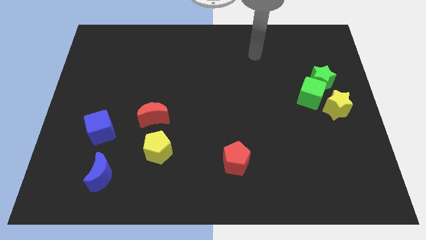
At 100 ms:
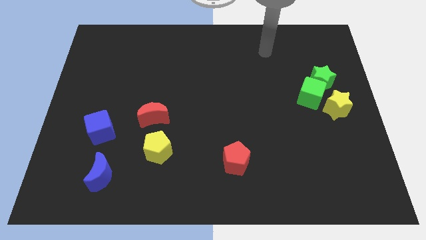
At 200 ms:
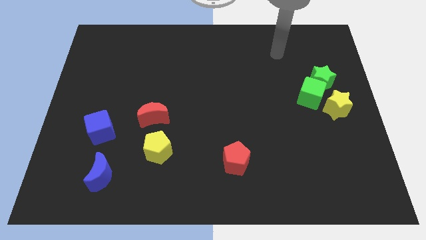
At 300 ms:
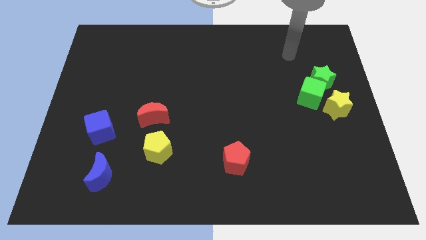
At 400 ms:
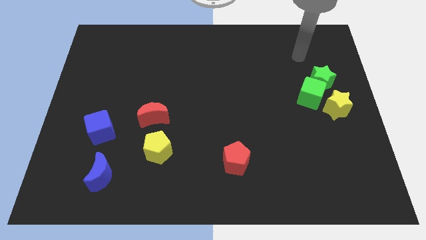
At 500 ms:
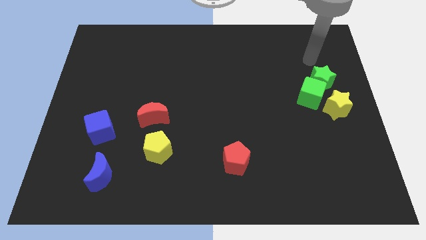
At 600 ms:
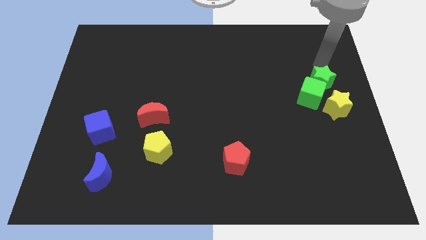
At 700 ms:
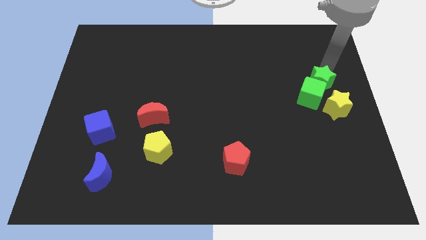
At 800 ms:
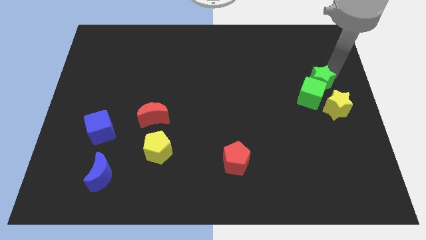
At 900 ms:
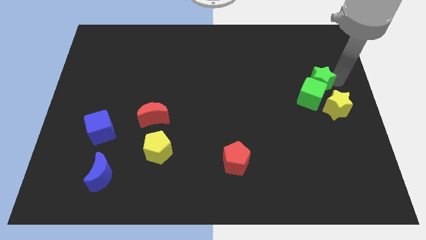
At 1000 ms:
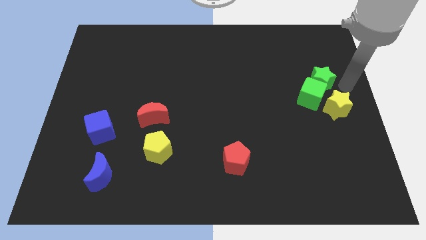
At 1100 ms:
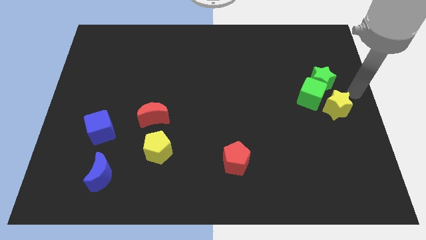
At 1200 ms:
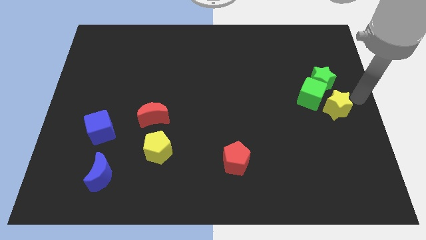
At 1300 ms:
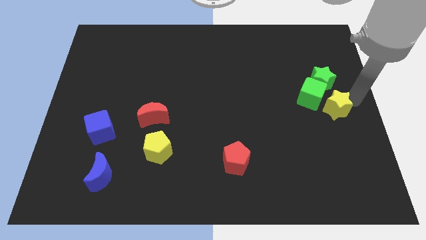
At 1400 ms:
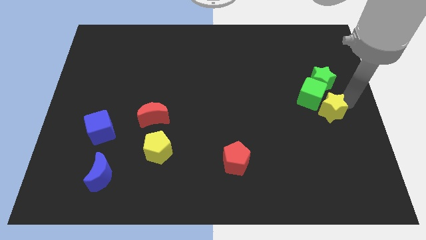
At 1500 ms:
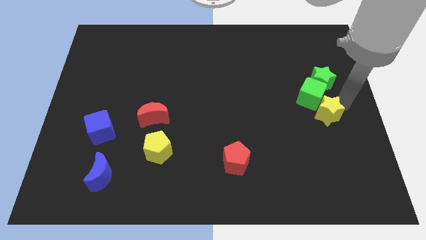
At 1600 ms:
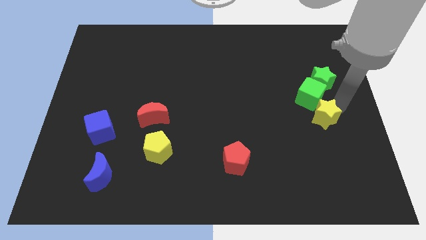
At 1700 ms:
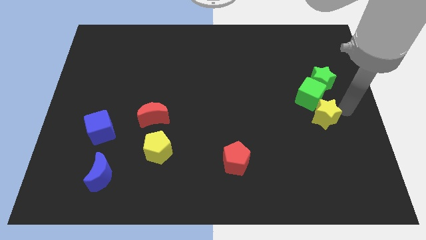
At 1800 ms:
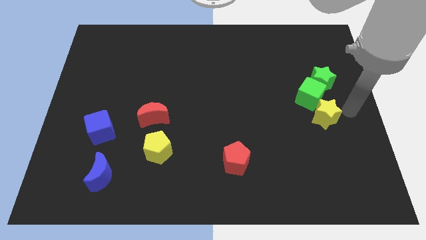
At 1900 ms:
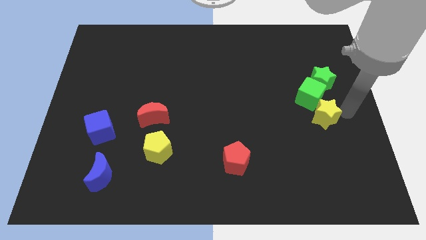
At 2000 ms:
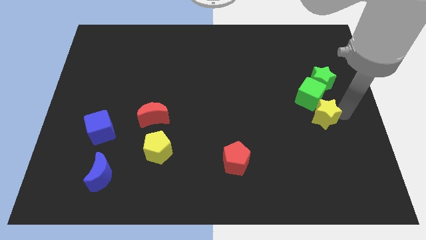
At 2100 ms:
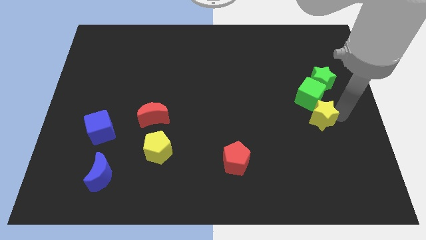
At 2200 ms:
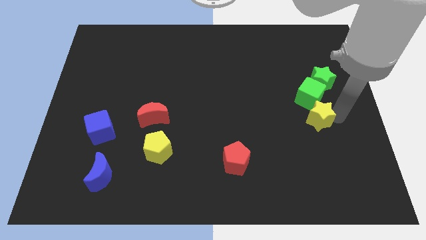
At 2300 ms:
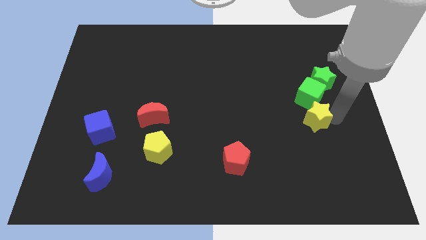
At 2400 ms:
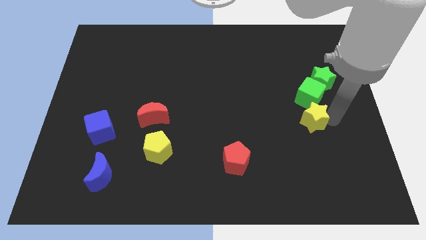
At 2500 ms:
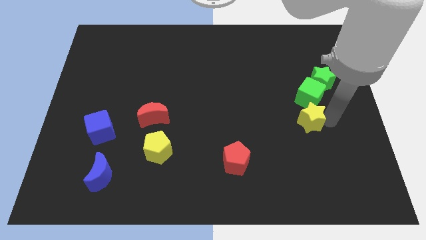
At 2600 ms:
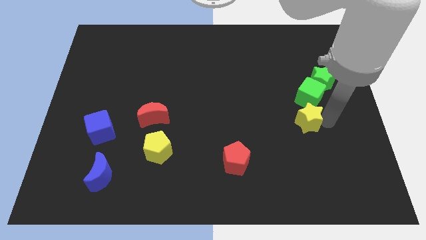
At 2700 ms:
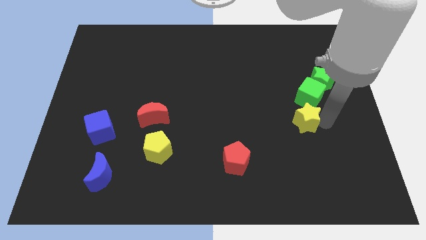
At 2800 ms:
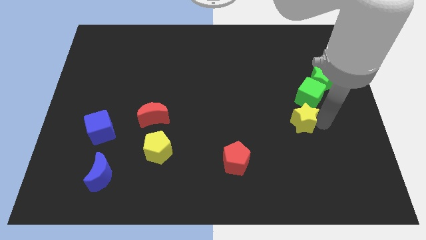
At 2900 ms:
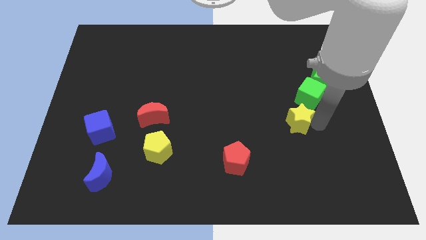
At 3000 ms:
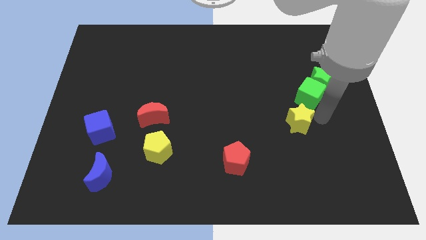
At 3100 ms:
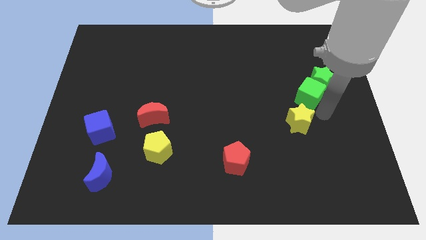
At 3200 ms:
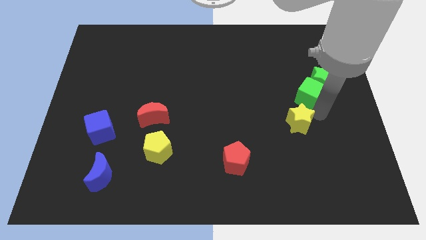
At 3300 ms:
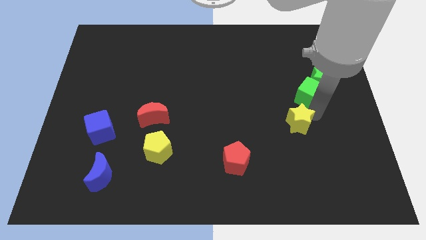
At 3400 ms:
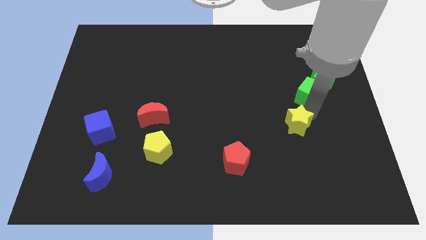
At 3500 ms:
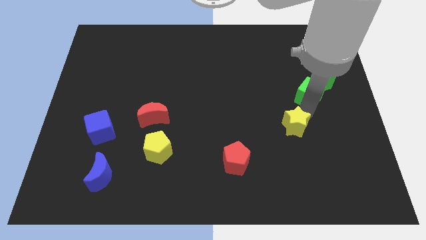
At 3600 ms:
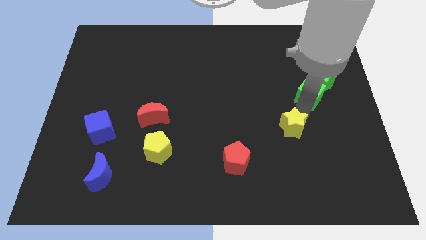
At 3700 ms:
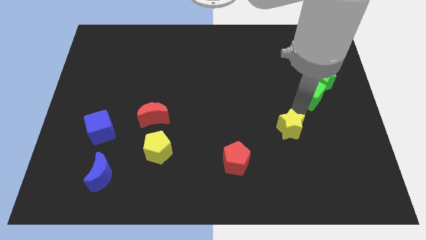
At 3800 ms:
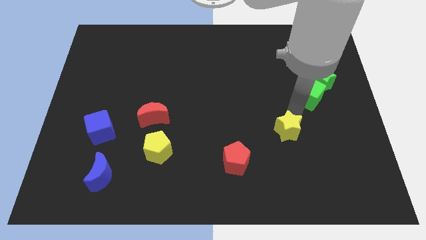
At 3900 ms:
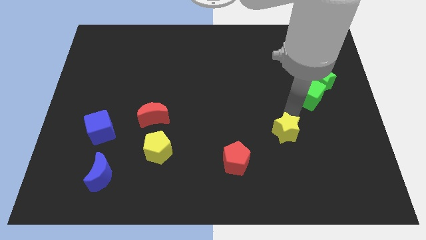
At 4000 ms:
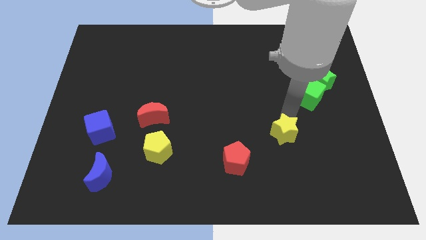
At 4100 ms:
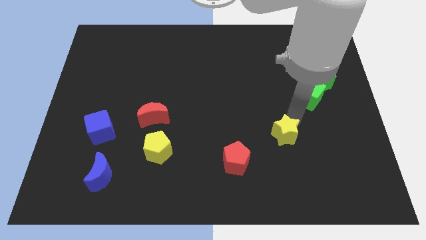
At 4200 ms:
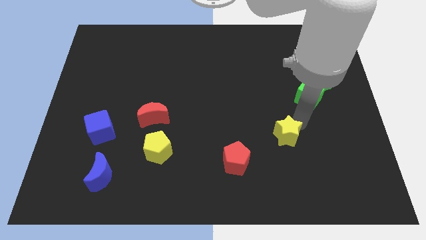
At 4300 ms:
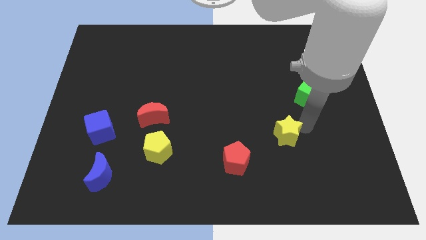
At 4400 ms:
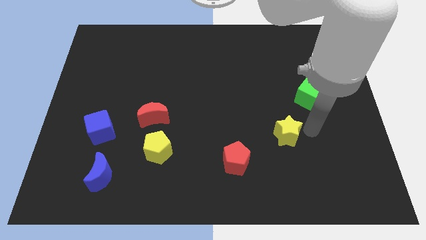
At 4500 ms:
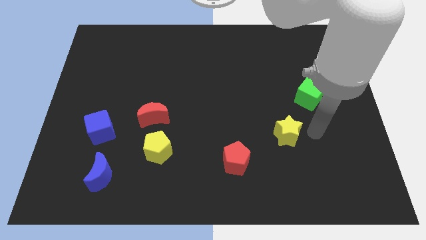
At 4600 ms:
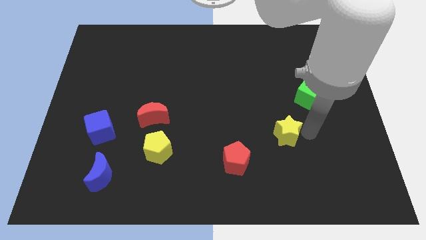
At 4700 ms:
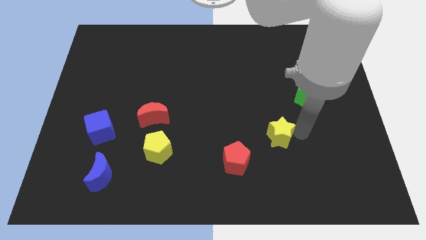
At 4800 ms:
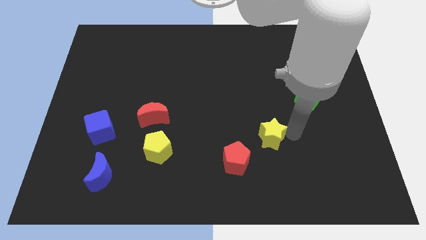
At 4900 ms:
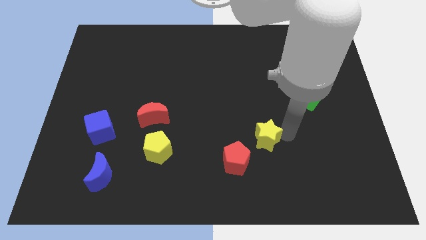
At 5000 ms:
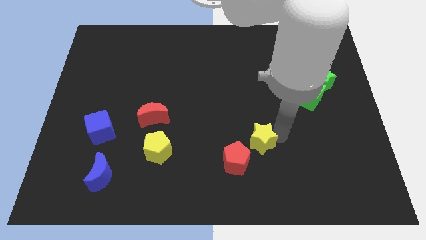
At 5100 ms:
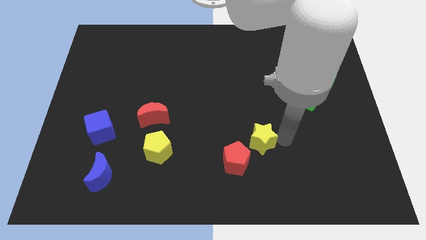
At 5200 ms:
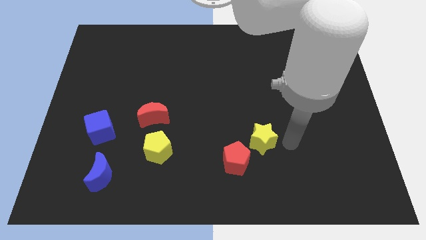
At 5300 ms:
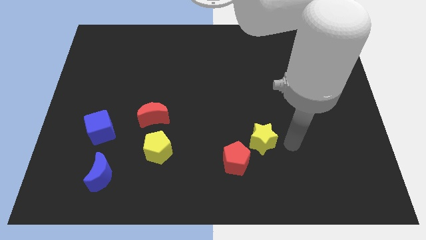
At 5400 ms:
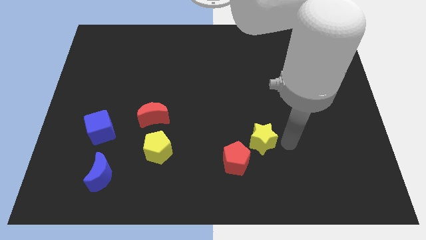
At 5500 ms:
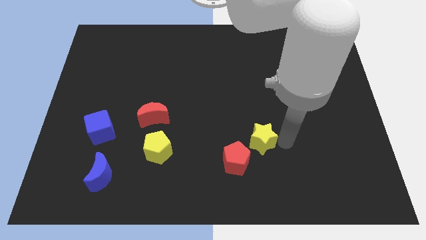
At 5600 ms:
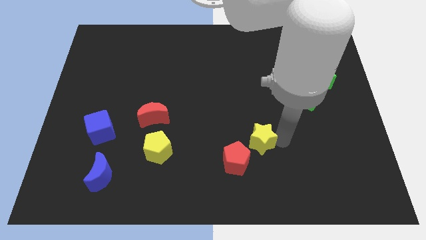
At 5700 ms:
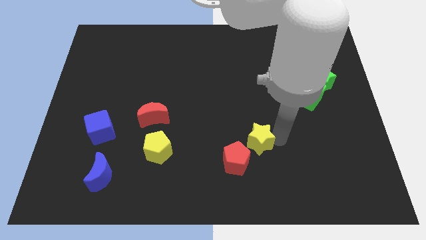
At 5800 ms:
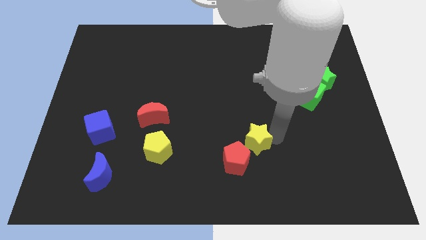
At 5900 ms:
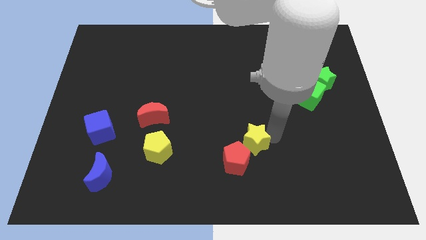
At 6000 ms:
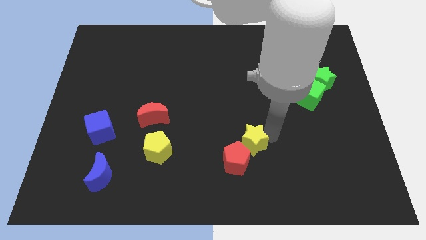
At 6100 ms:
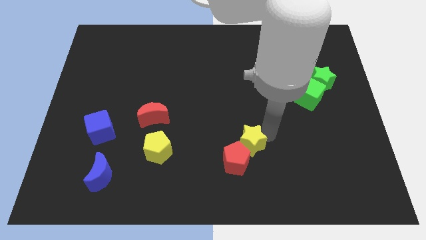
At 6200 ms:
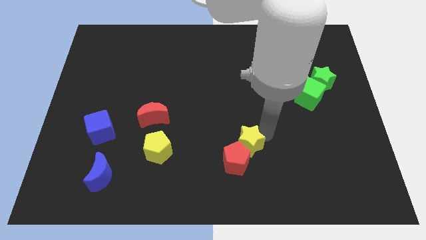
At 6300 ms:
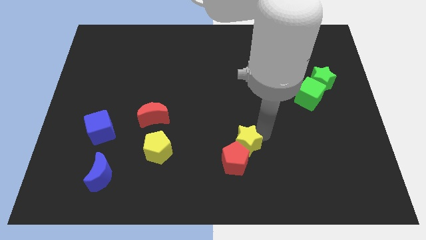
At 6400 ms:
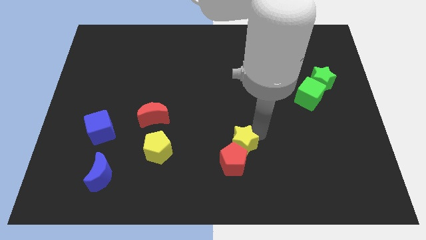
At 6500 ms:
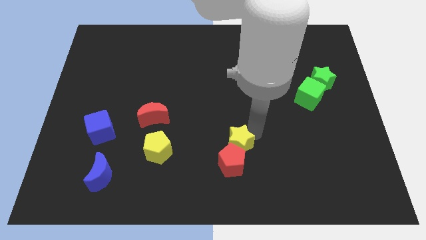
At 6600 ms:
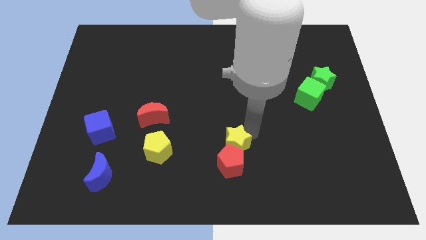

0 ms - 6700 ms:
push the yellow star to the top left of the red pentagon

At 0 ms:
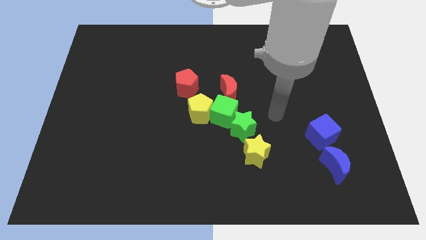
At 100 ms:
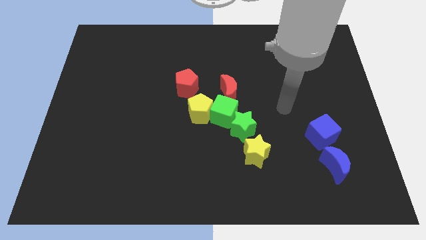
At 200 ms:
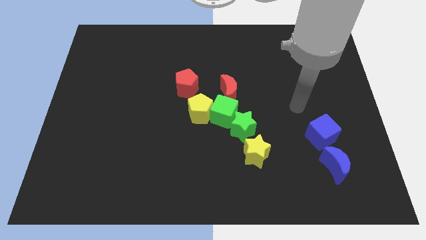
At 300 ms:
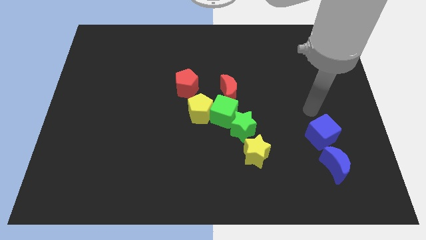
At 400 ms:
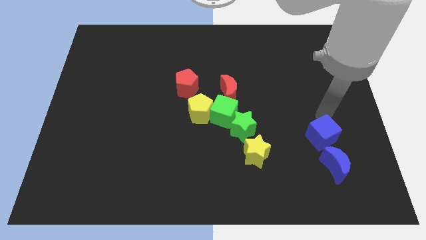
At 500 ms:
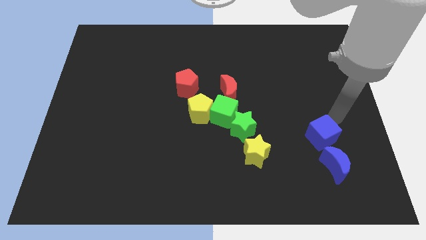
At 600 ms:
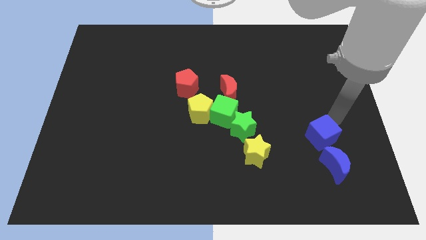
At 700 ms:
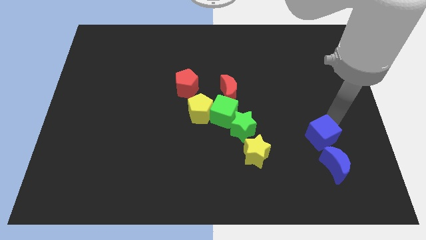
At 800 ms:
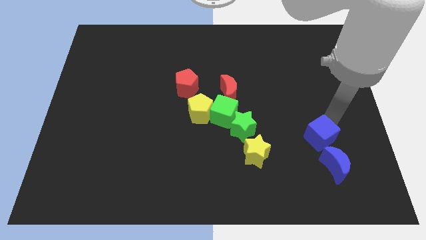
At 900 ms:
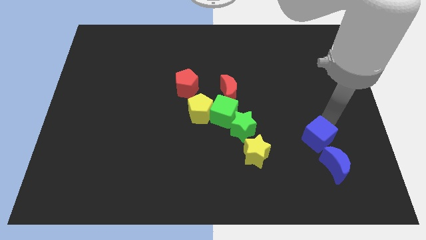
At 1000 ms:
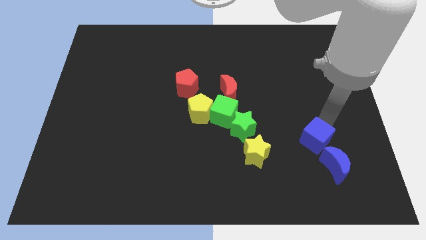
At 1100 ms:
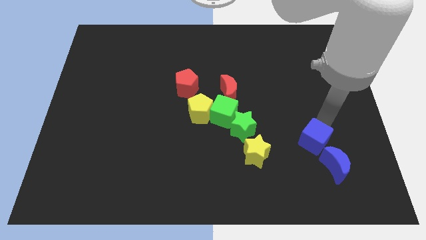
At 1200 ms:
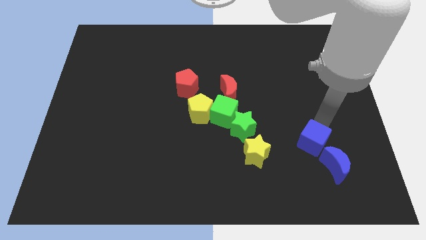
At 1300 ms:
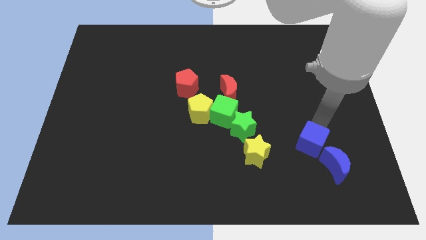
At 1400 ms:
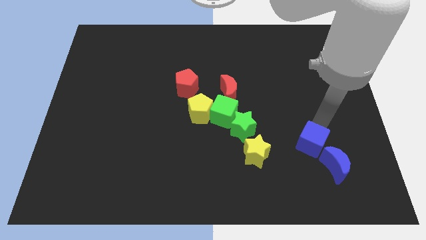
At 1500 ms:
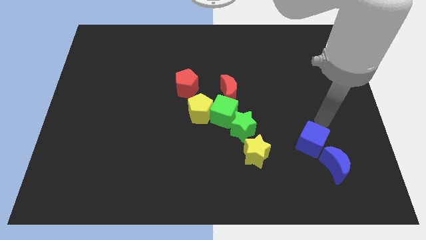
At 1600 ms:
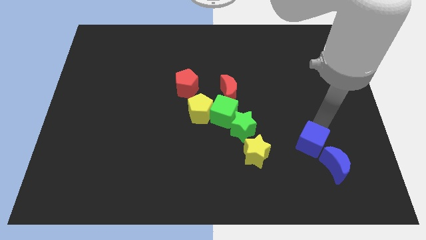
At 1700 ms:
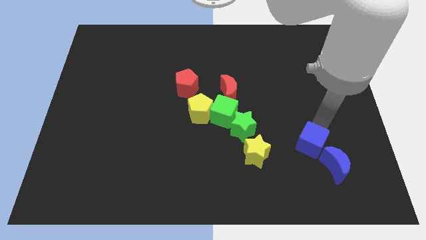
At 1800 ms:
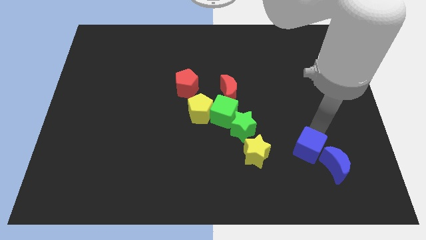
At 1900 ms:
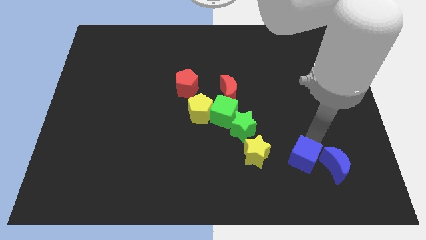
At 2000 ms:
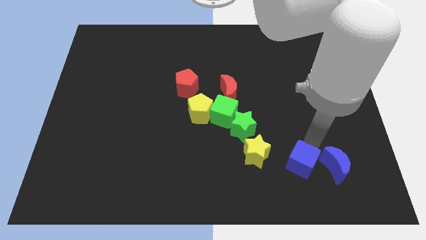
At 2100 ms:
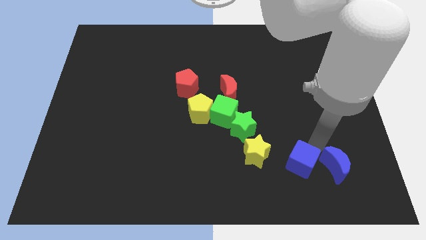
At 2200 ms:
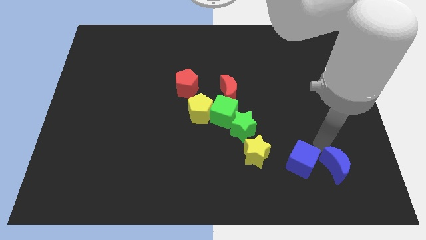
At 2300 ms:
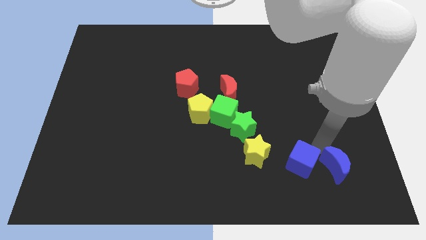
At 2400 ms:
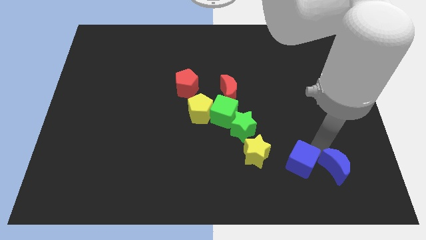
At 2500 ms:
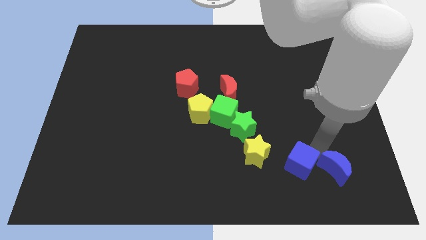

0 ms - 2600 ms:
put the blue cube to the bottom right side of the yellow star
